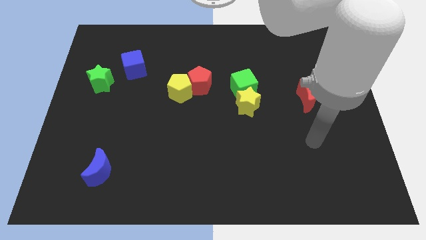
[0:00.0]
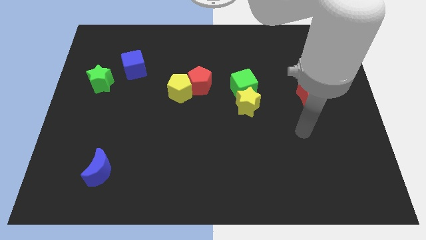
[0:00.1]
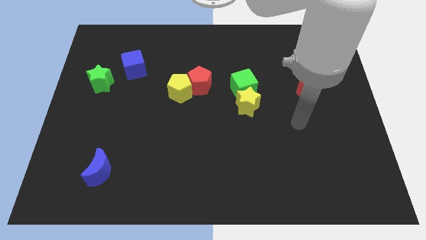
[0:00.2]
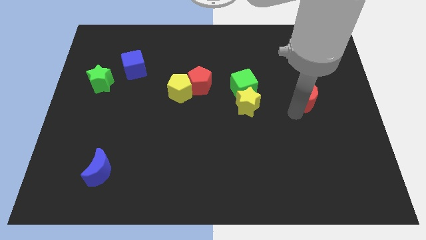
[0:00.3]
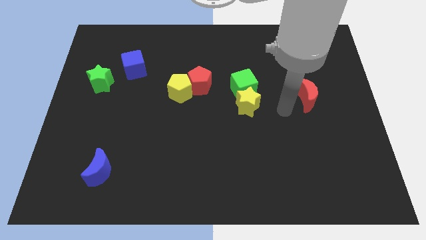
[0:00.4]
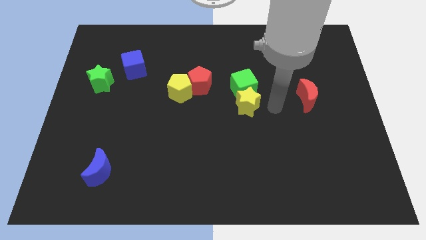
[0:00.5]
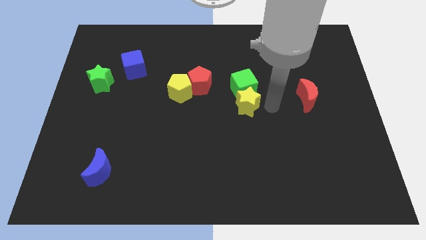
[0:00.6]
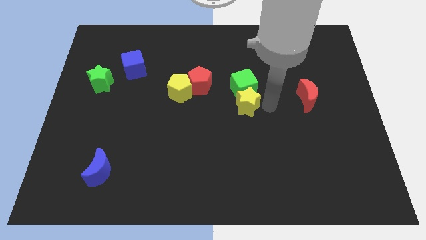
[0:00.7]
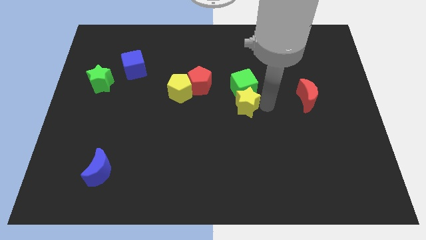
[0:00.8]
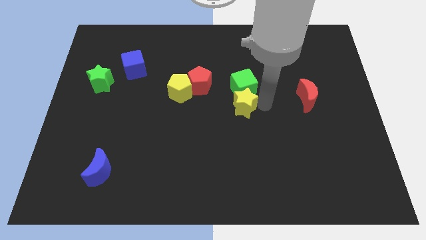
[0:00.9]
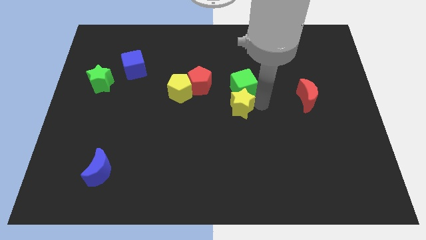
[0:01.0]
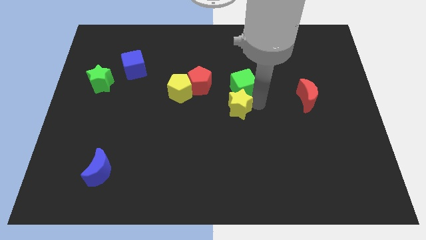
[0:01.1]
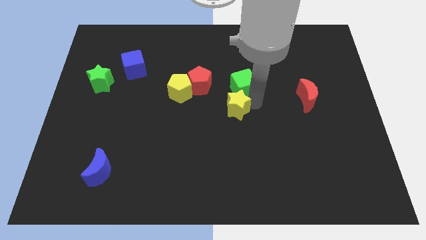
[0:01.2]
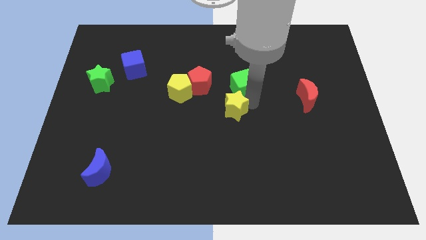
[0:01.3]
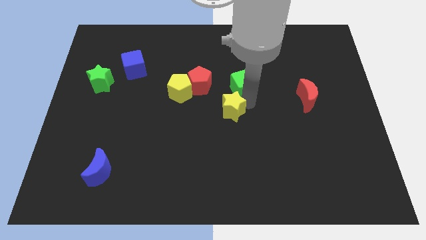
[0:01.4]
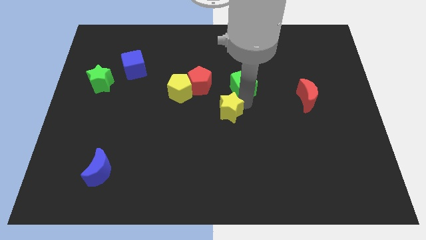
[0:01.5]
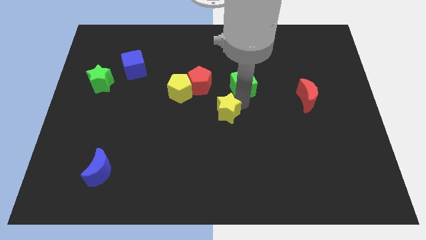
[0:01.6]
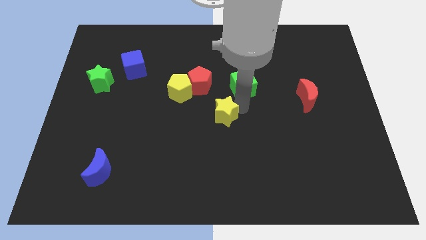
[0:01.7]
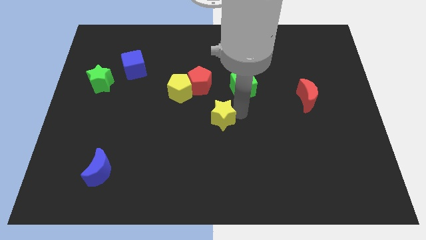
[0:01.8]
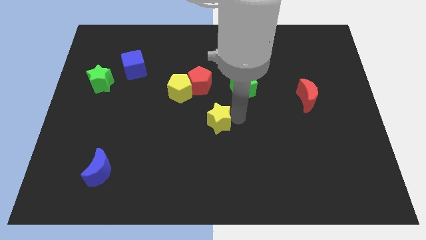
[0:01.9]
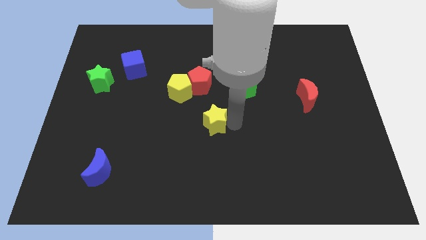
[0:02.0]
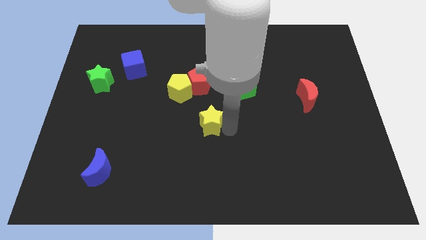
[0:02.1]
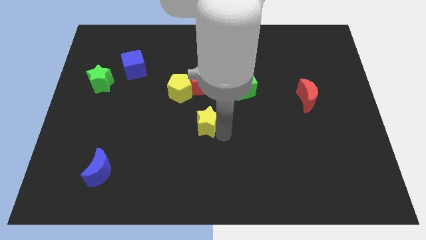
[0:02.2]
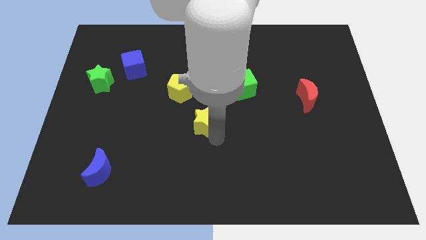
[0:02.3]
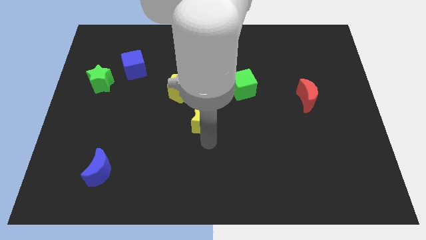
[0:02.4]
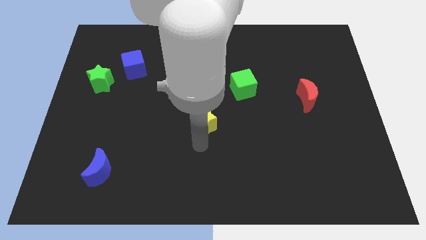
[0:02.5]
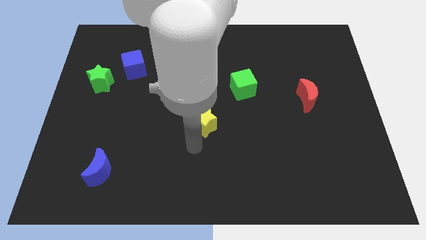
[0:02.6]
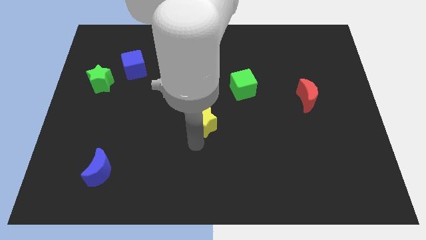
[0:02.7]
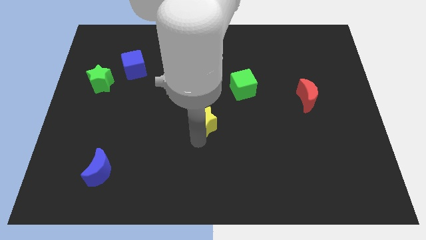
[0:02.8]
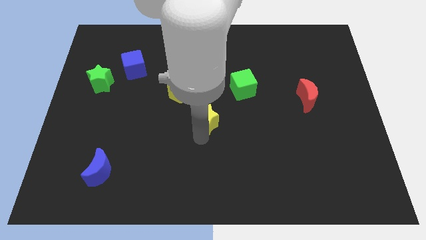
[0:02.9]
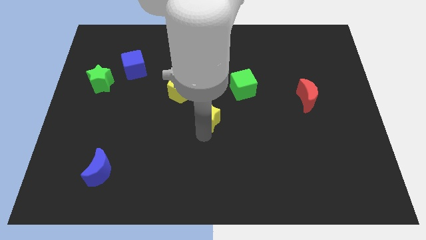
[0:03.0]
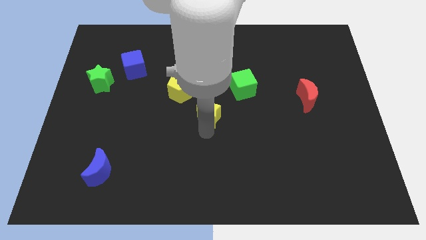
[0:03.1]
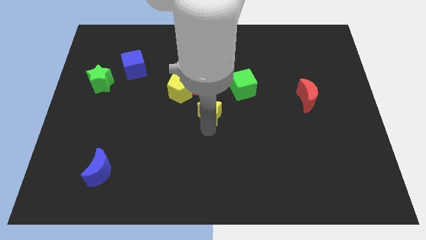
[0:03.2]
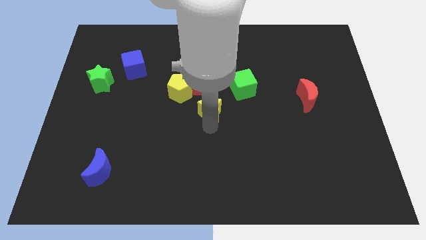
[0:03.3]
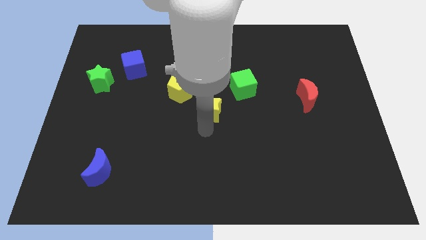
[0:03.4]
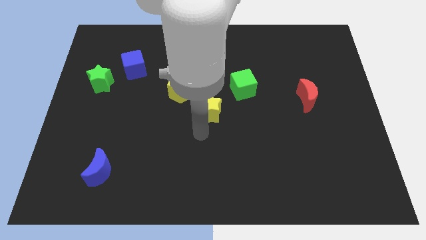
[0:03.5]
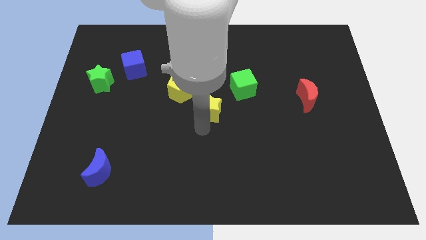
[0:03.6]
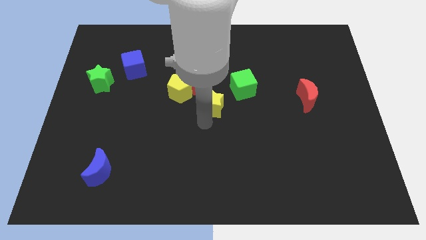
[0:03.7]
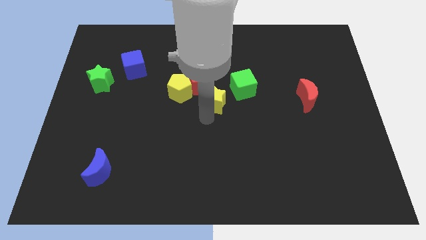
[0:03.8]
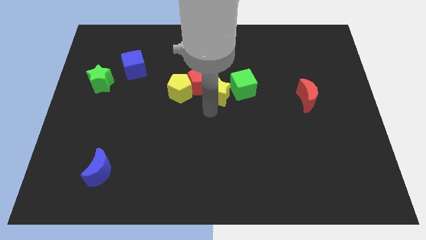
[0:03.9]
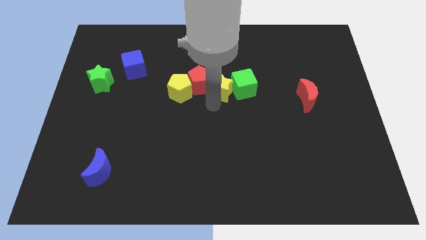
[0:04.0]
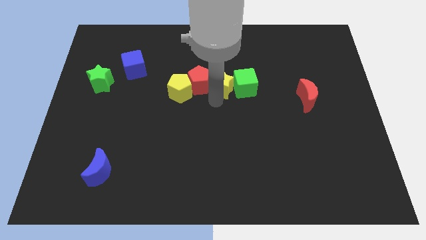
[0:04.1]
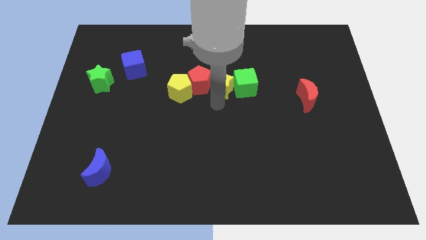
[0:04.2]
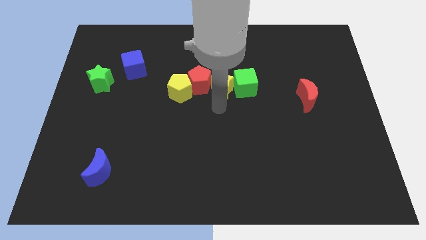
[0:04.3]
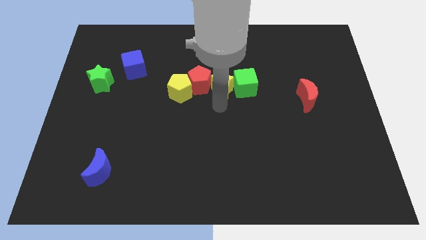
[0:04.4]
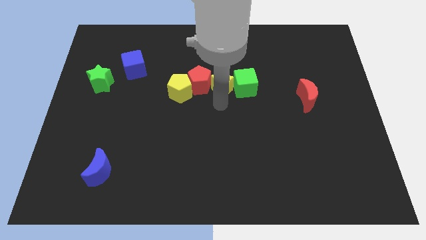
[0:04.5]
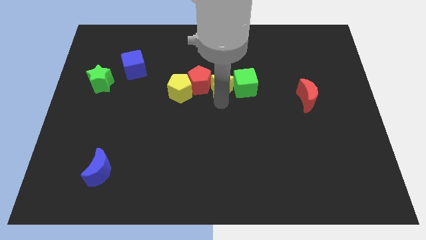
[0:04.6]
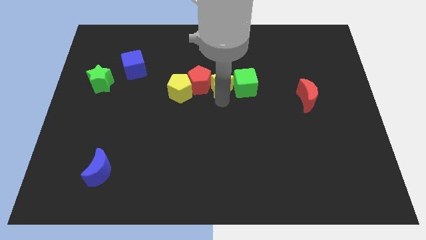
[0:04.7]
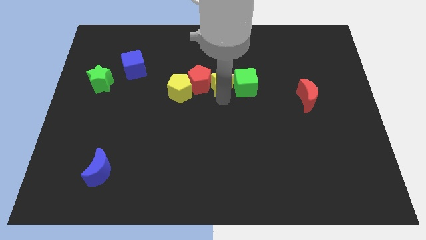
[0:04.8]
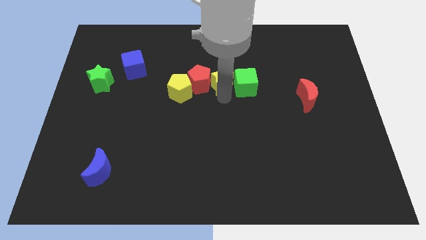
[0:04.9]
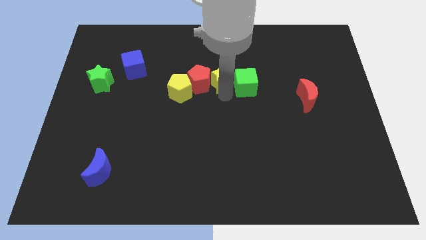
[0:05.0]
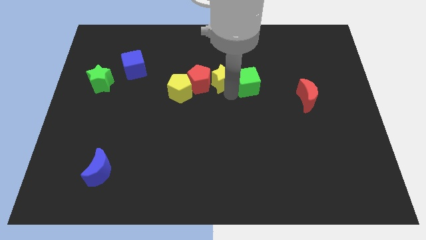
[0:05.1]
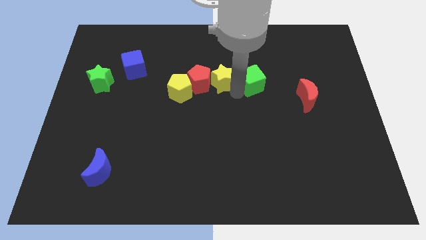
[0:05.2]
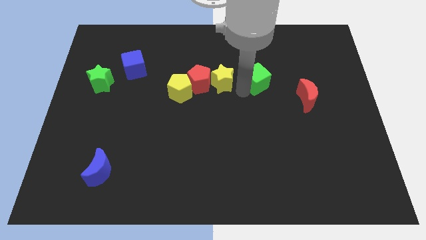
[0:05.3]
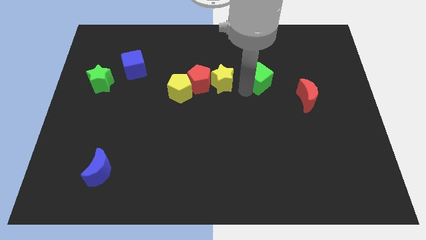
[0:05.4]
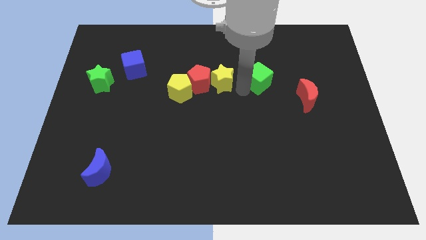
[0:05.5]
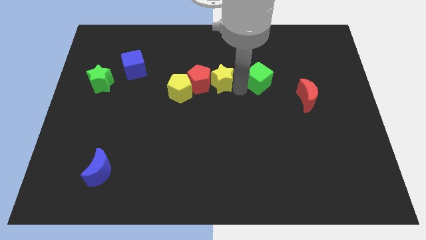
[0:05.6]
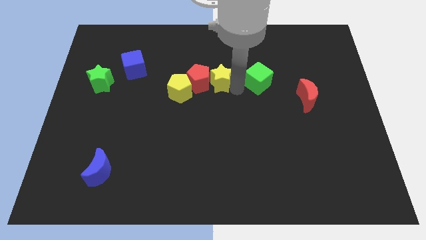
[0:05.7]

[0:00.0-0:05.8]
move the yellow star diagonally up and to the right of the yellow pentagon
